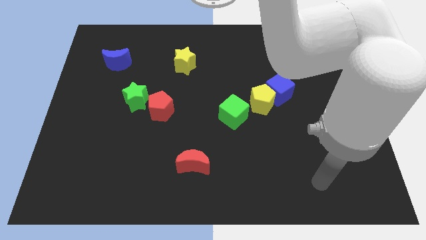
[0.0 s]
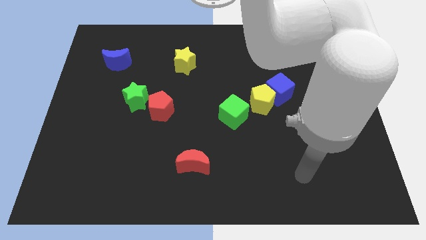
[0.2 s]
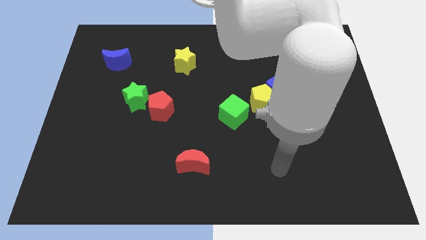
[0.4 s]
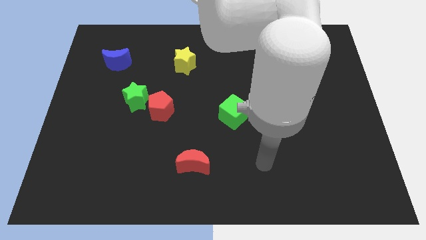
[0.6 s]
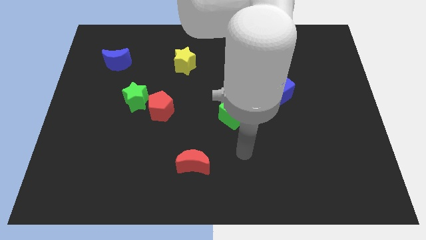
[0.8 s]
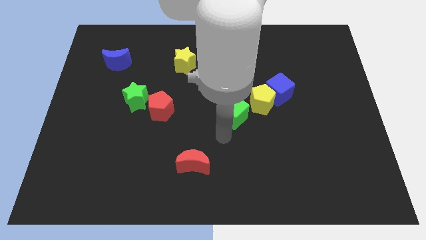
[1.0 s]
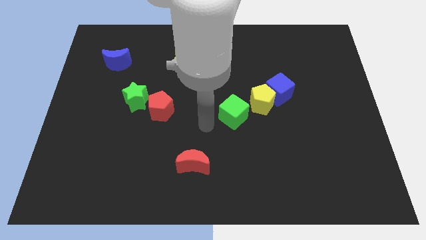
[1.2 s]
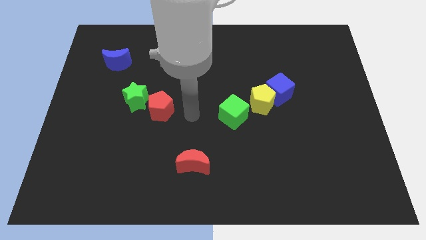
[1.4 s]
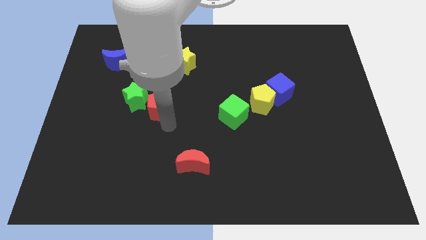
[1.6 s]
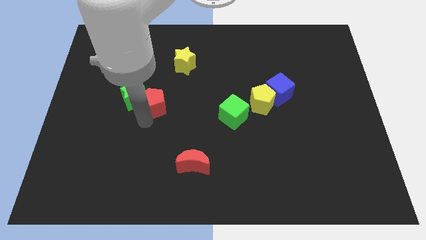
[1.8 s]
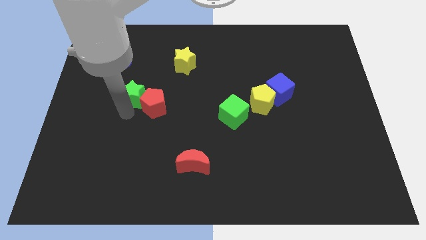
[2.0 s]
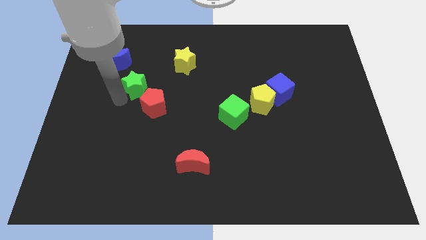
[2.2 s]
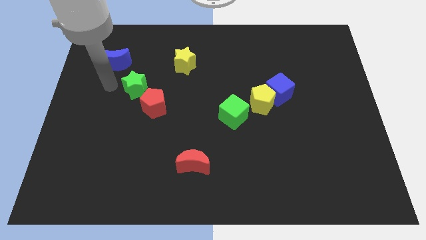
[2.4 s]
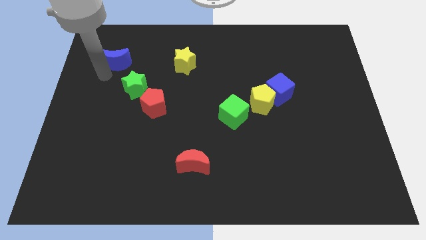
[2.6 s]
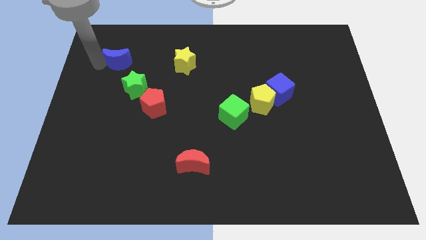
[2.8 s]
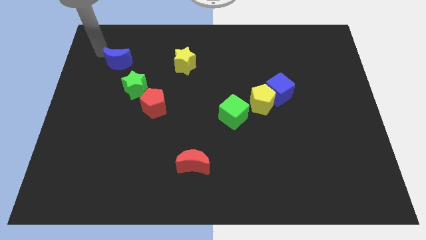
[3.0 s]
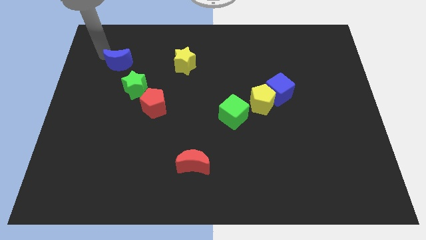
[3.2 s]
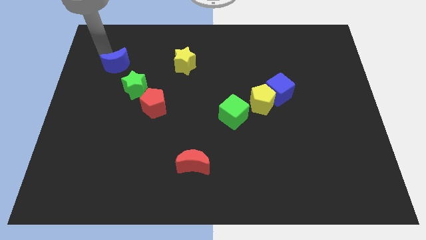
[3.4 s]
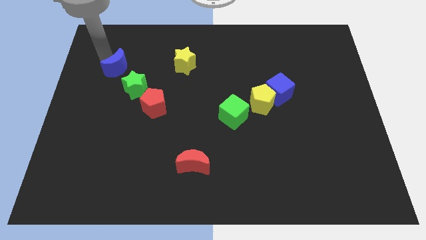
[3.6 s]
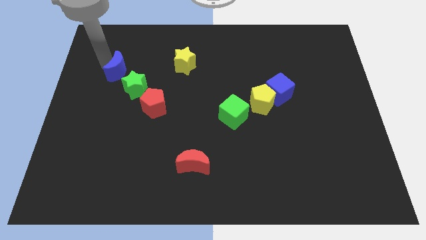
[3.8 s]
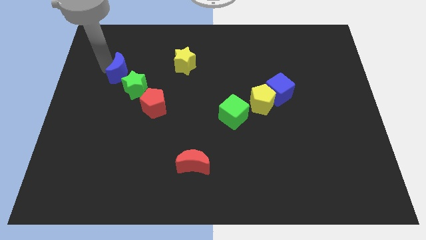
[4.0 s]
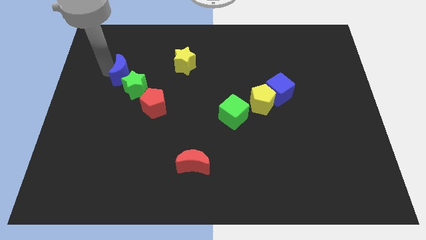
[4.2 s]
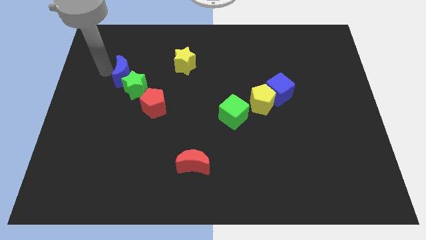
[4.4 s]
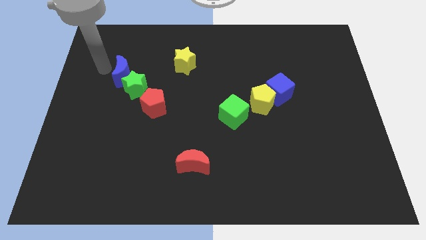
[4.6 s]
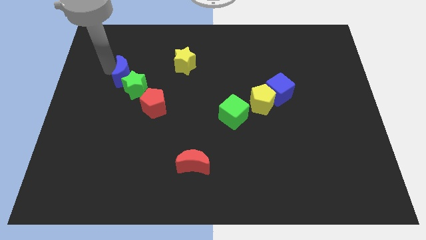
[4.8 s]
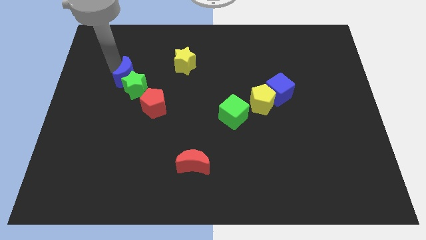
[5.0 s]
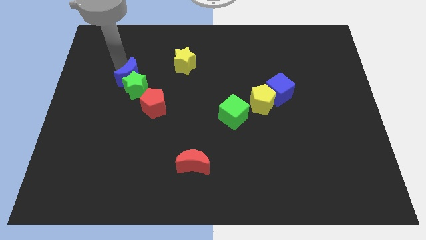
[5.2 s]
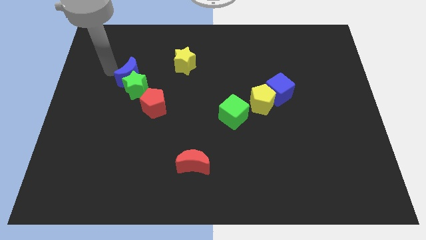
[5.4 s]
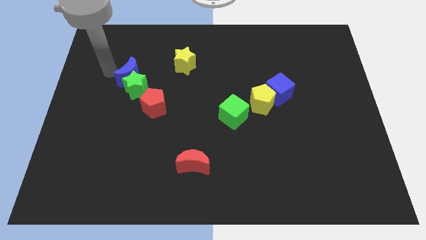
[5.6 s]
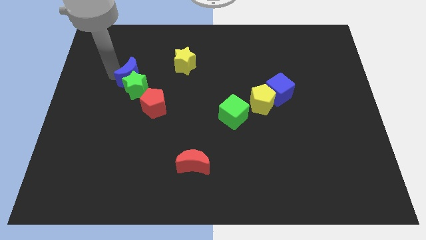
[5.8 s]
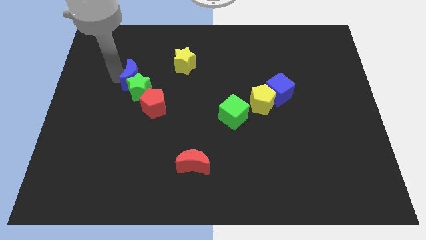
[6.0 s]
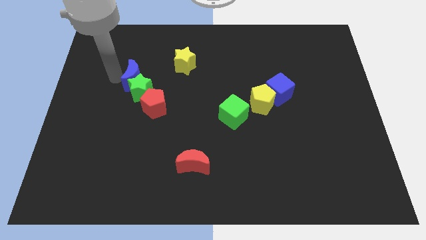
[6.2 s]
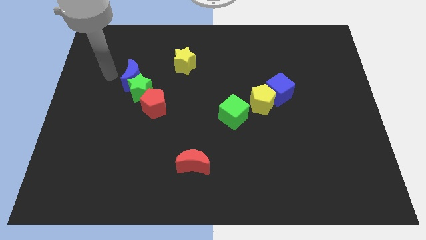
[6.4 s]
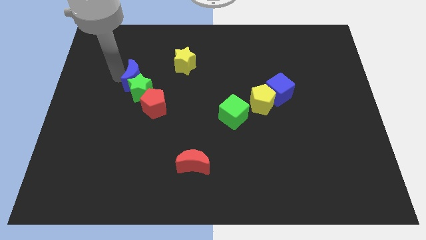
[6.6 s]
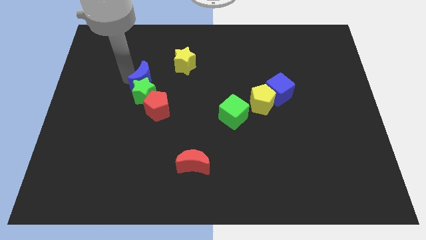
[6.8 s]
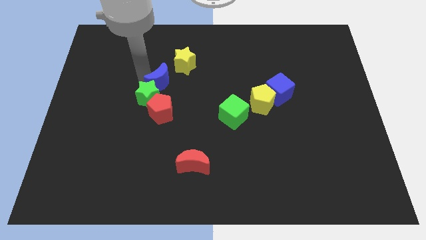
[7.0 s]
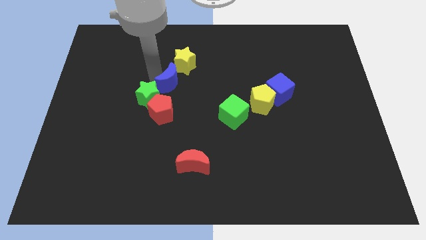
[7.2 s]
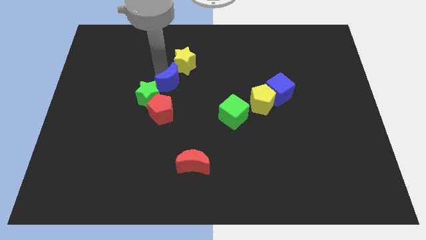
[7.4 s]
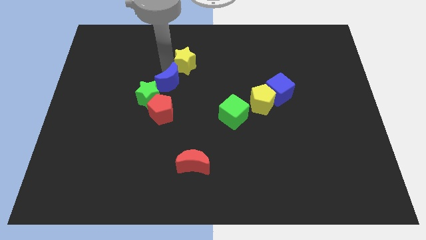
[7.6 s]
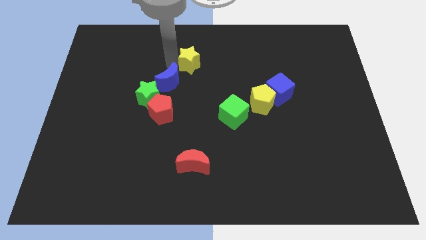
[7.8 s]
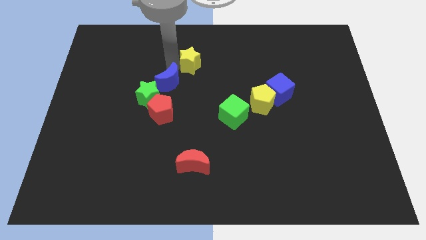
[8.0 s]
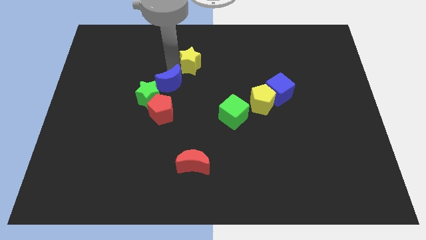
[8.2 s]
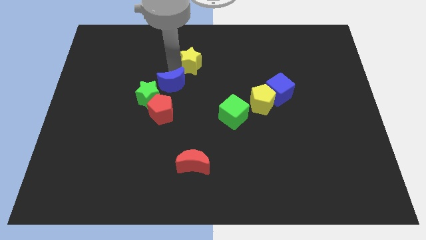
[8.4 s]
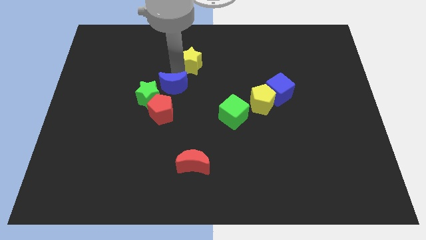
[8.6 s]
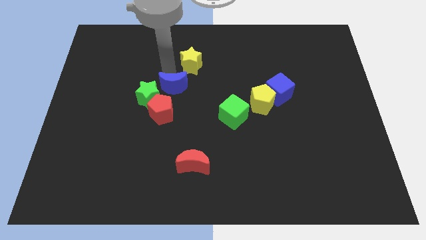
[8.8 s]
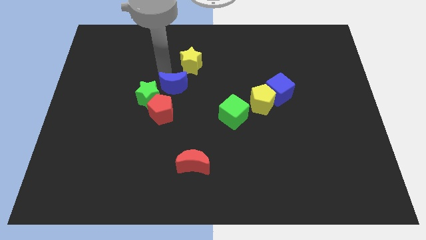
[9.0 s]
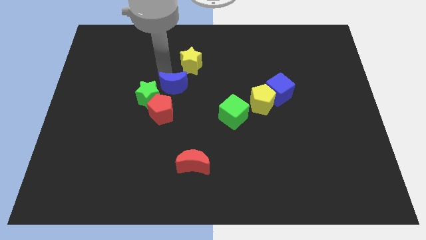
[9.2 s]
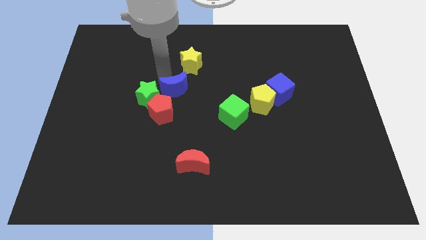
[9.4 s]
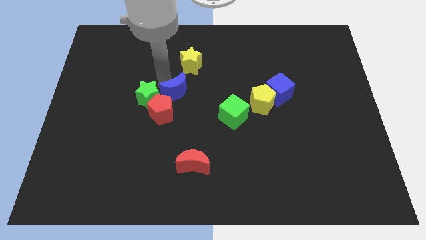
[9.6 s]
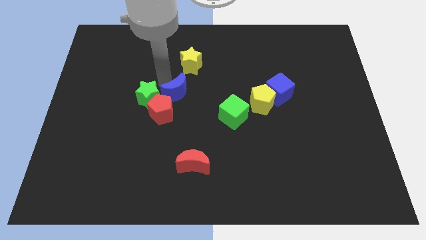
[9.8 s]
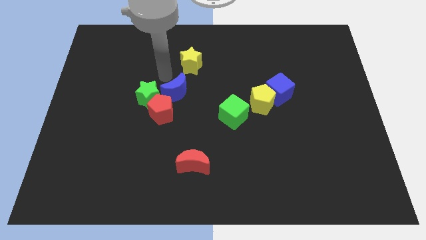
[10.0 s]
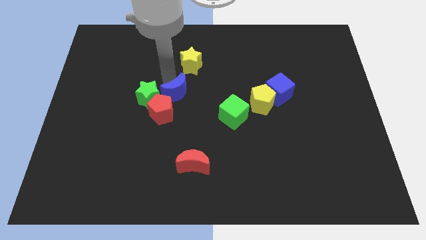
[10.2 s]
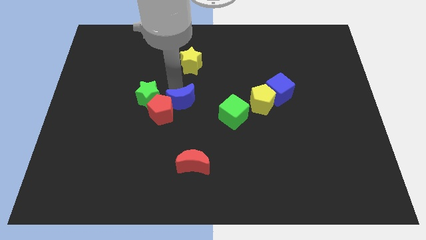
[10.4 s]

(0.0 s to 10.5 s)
move the blue moon down and to the right diagonally

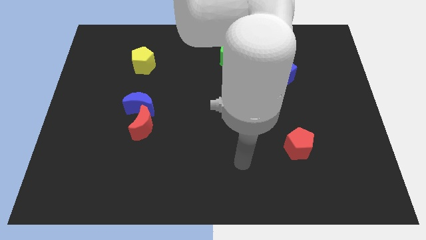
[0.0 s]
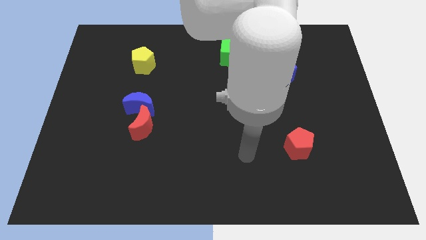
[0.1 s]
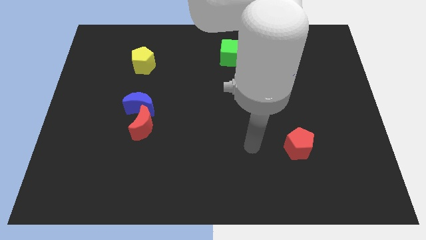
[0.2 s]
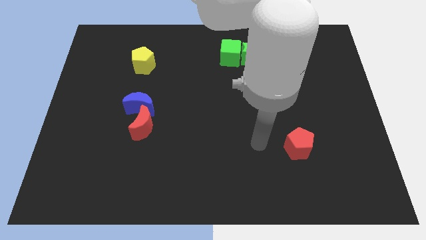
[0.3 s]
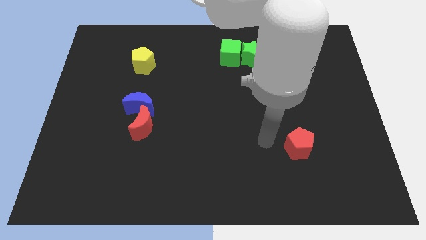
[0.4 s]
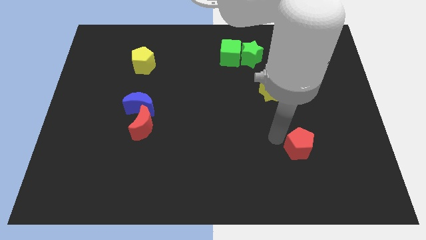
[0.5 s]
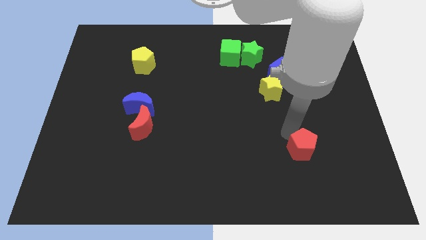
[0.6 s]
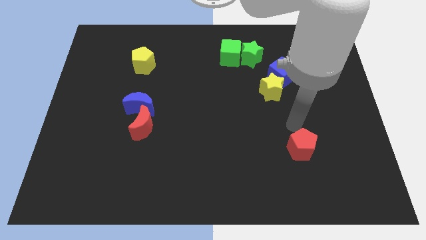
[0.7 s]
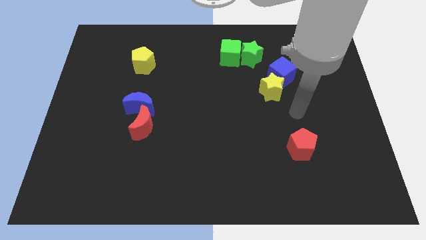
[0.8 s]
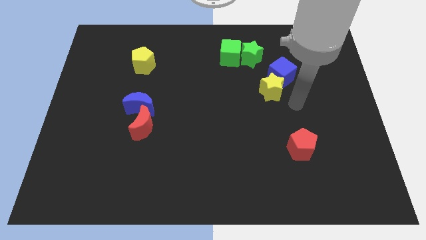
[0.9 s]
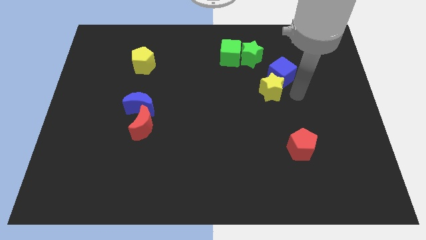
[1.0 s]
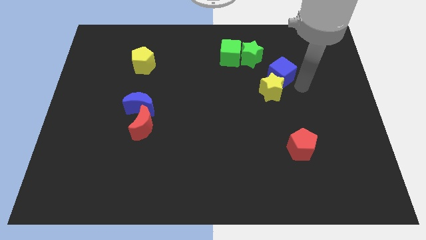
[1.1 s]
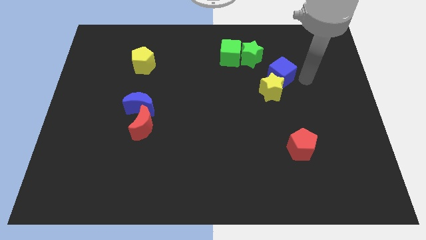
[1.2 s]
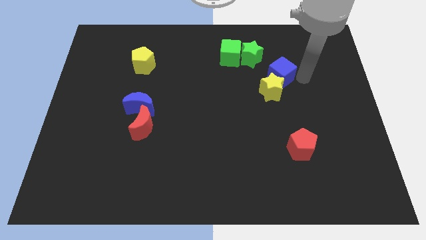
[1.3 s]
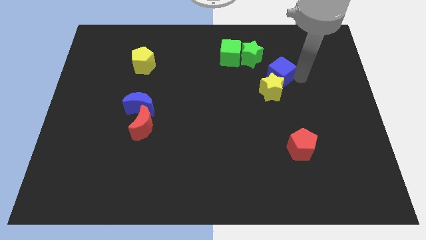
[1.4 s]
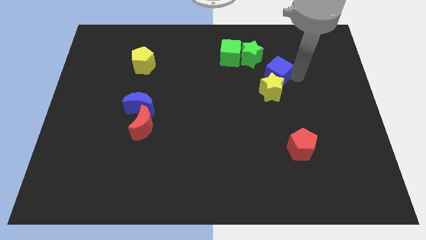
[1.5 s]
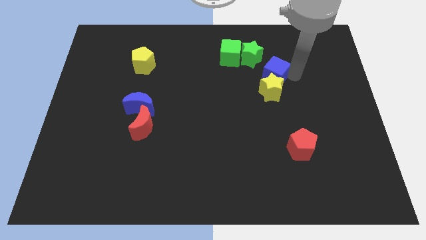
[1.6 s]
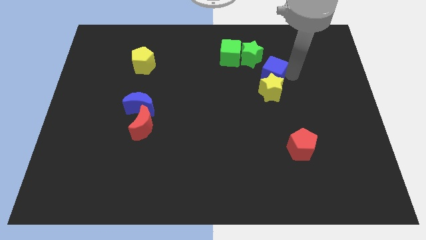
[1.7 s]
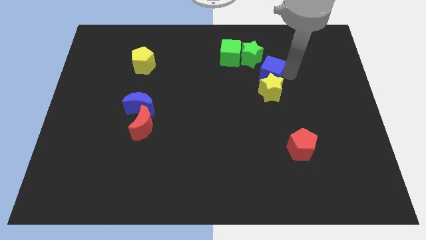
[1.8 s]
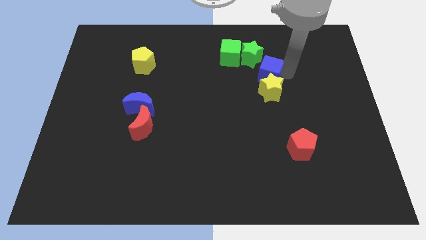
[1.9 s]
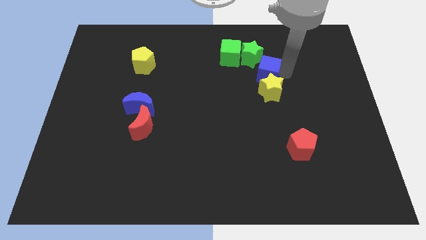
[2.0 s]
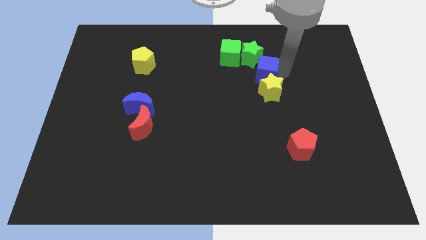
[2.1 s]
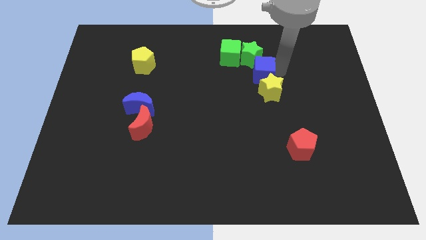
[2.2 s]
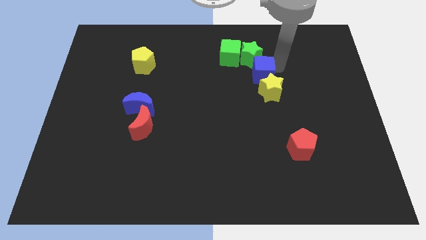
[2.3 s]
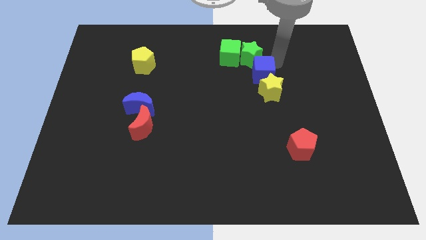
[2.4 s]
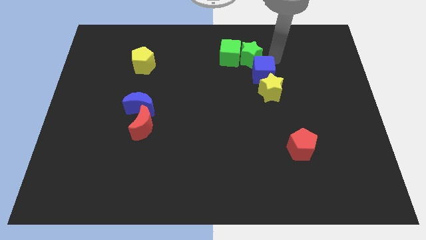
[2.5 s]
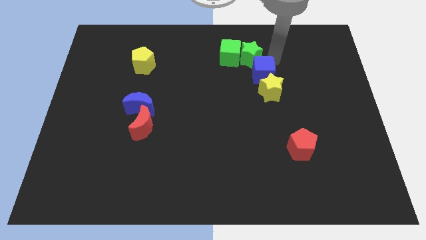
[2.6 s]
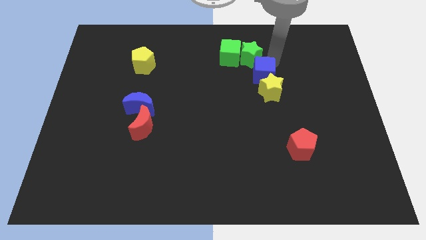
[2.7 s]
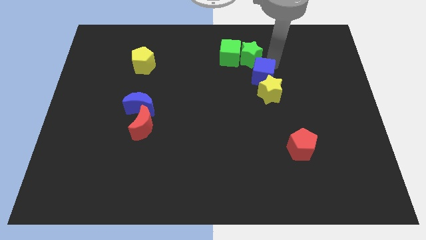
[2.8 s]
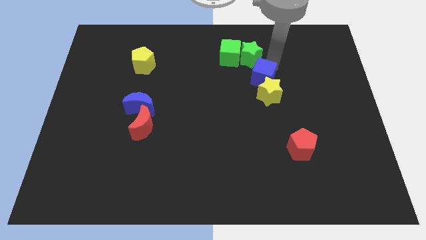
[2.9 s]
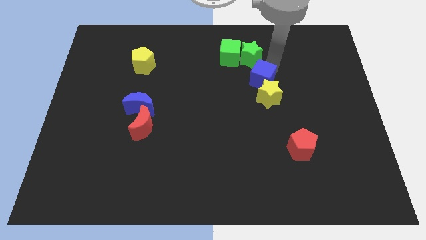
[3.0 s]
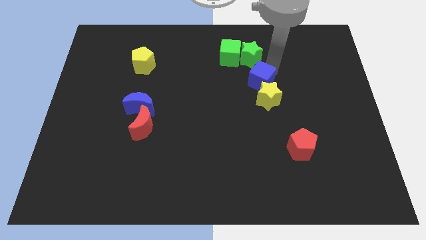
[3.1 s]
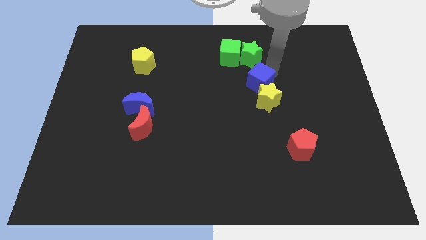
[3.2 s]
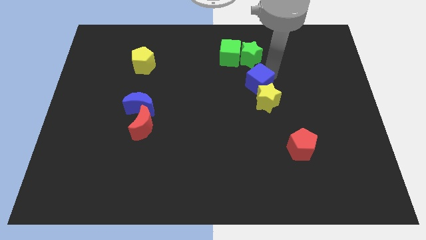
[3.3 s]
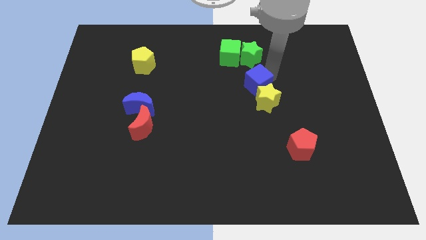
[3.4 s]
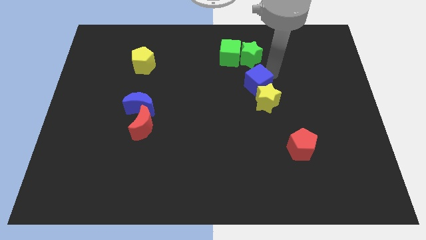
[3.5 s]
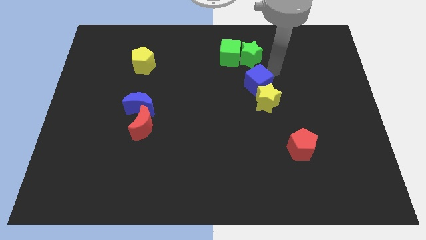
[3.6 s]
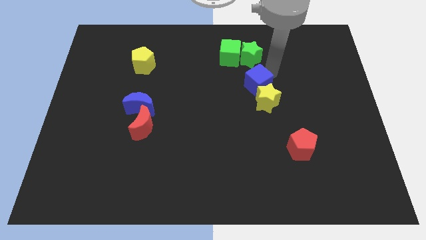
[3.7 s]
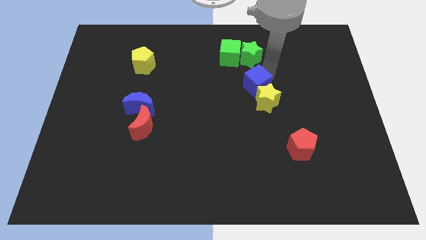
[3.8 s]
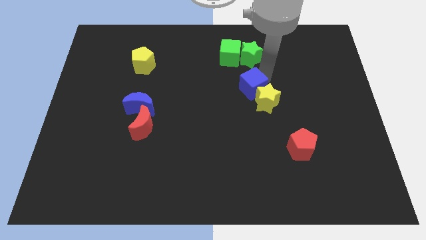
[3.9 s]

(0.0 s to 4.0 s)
slightly move the blue cube down and to the left diagonally
